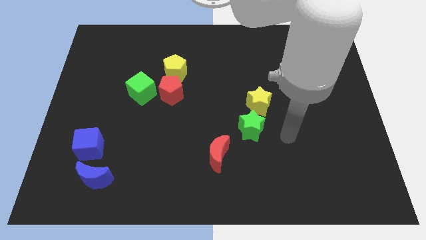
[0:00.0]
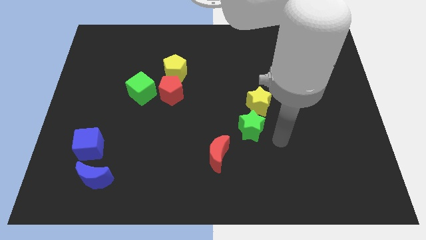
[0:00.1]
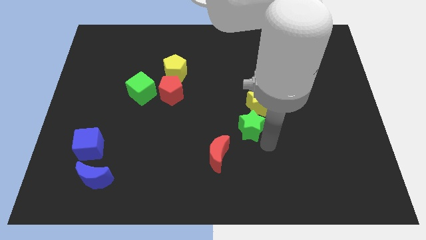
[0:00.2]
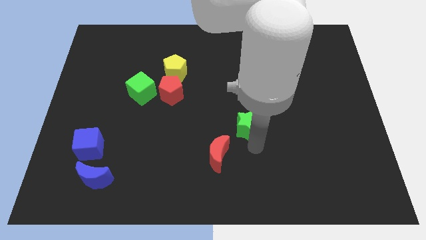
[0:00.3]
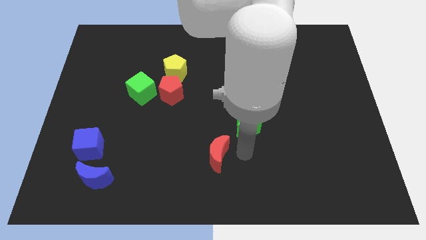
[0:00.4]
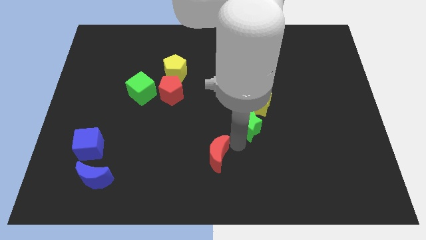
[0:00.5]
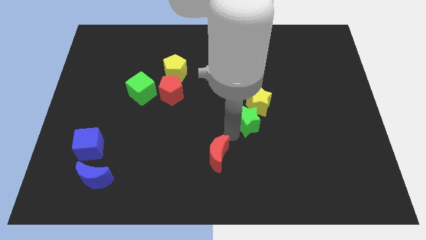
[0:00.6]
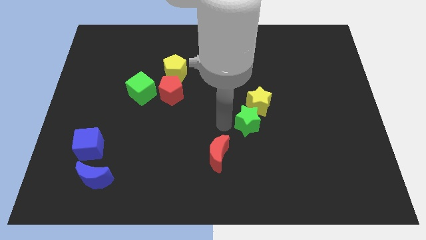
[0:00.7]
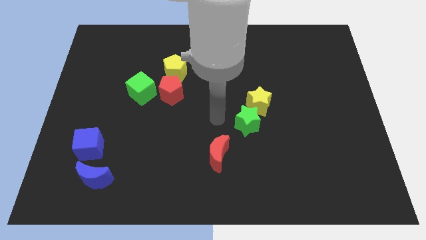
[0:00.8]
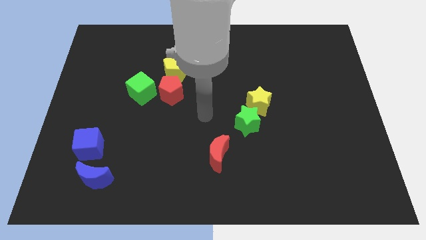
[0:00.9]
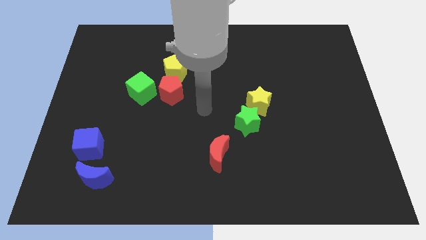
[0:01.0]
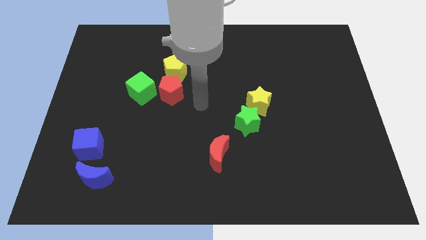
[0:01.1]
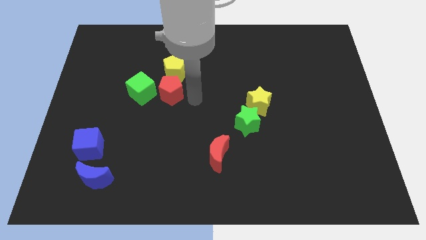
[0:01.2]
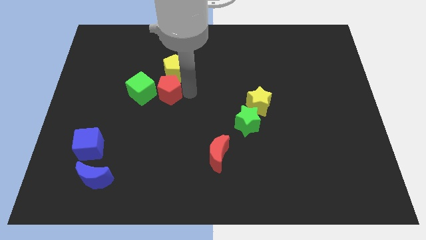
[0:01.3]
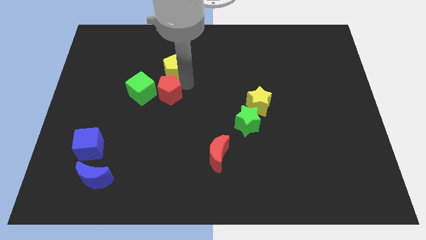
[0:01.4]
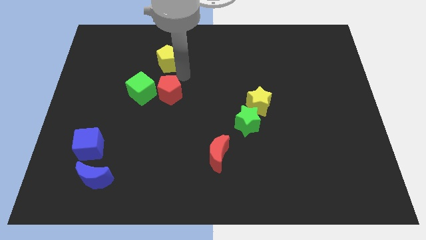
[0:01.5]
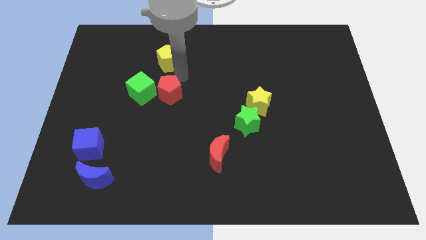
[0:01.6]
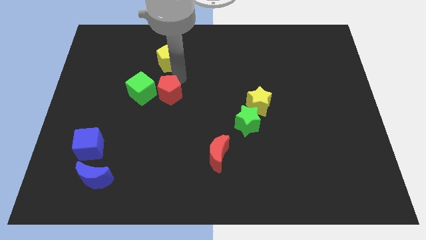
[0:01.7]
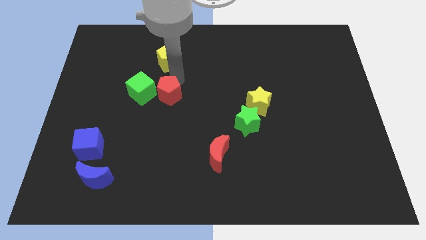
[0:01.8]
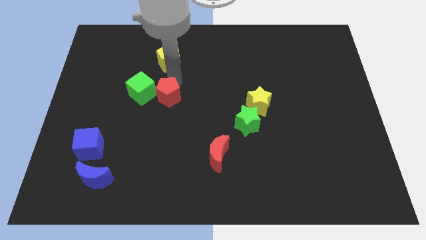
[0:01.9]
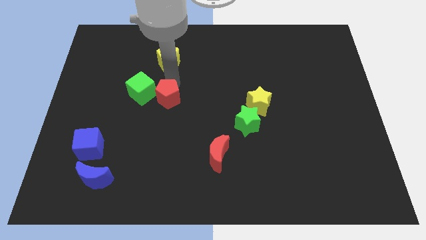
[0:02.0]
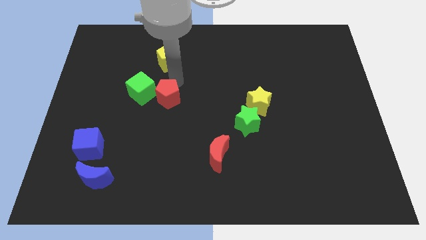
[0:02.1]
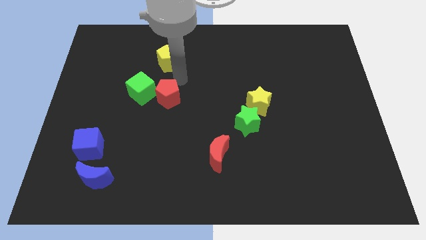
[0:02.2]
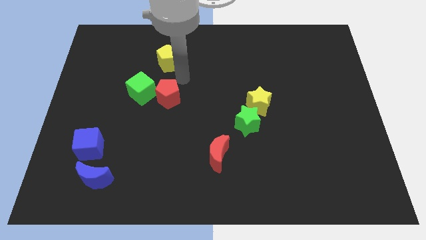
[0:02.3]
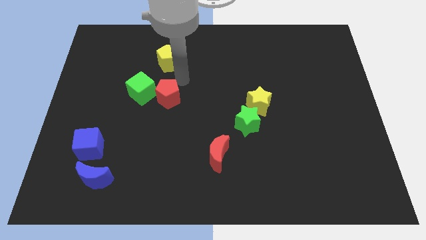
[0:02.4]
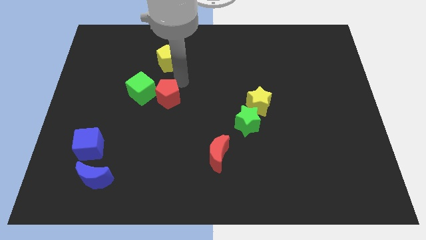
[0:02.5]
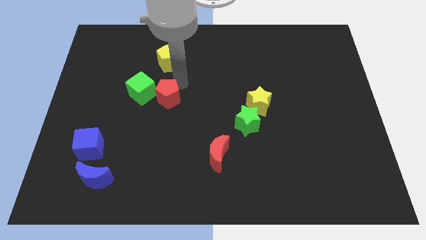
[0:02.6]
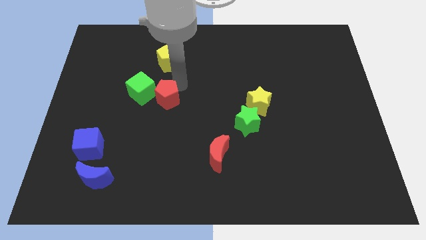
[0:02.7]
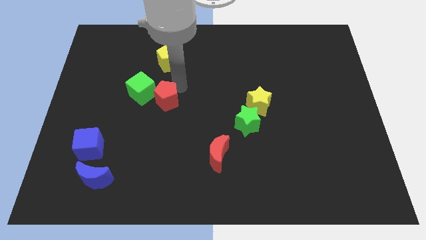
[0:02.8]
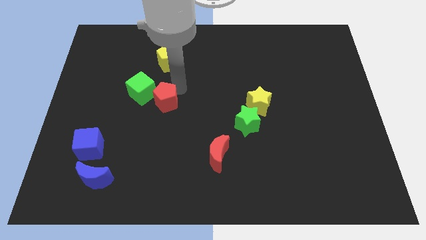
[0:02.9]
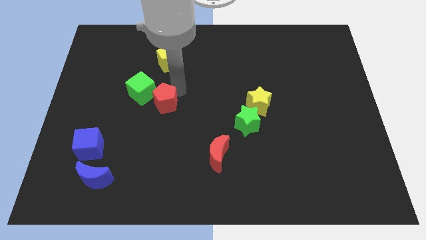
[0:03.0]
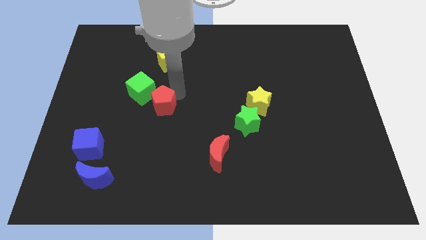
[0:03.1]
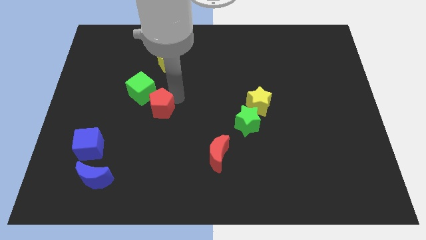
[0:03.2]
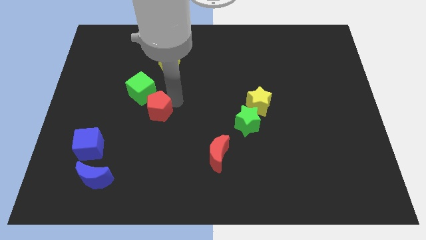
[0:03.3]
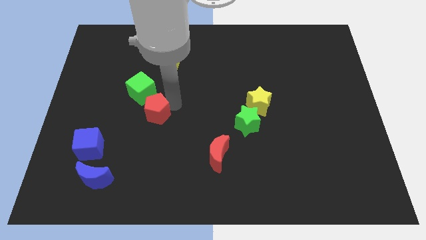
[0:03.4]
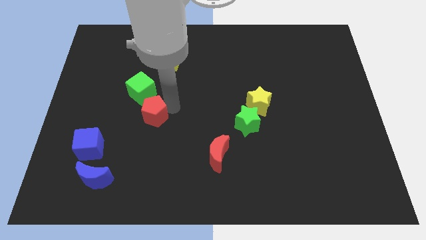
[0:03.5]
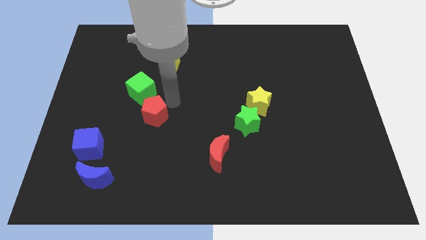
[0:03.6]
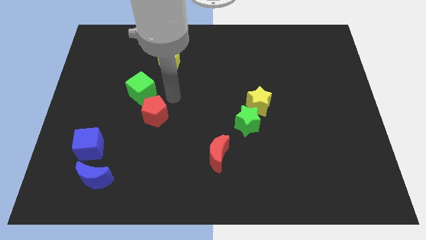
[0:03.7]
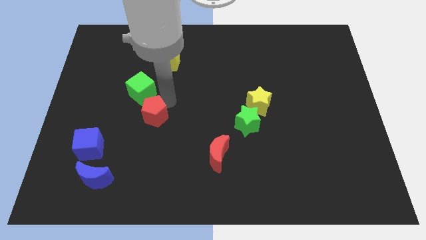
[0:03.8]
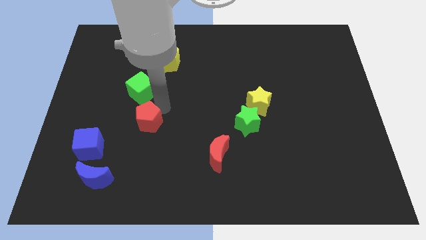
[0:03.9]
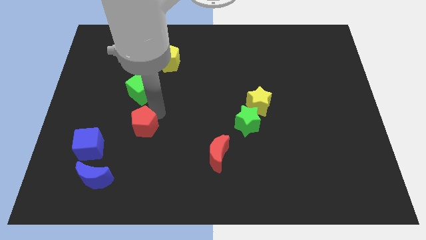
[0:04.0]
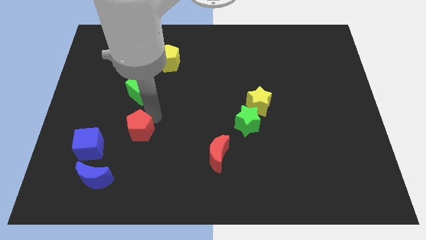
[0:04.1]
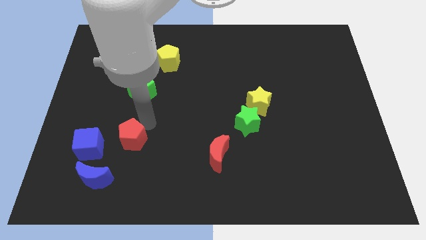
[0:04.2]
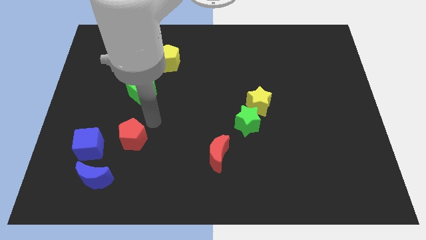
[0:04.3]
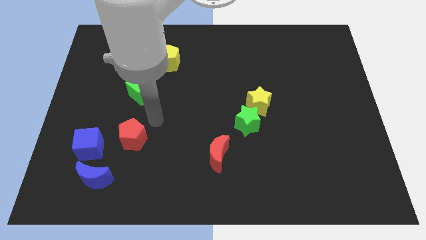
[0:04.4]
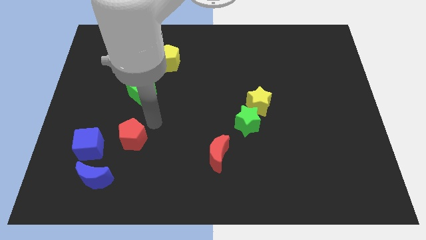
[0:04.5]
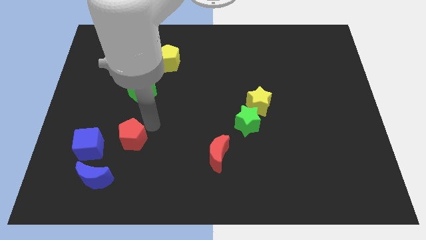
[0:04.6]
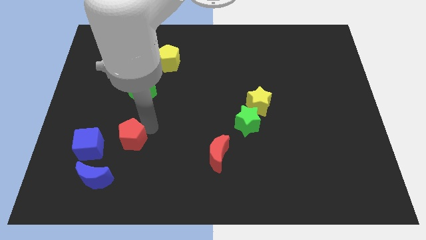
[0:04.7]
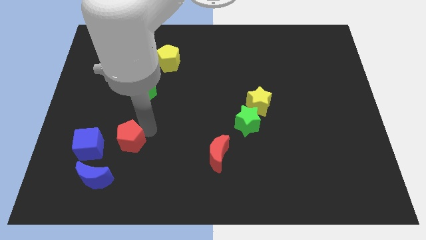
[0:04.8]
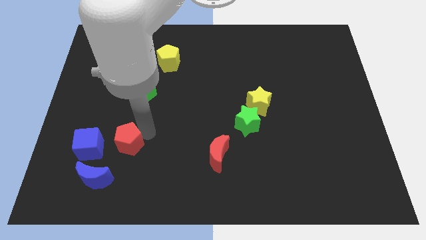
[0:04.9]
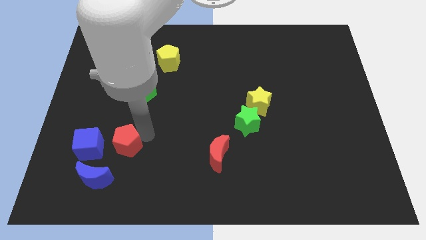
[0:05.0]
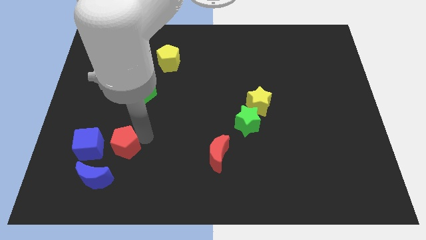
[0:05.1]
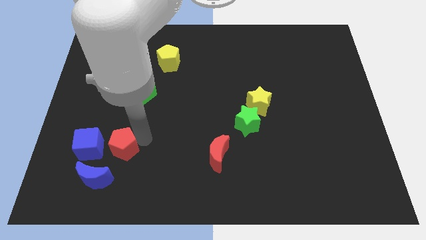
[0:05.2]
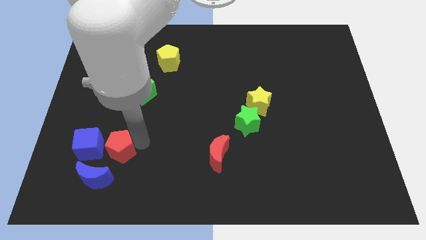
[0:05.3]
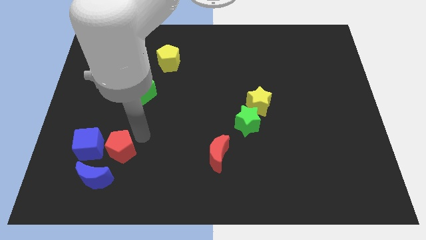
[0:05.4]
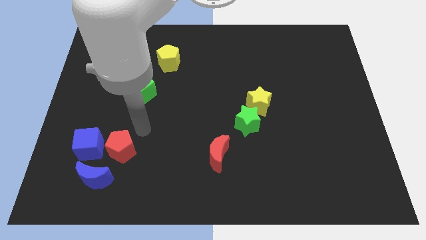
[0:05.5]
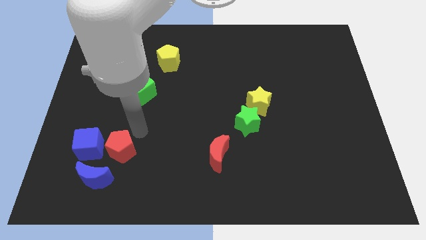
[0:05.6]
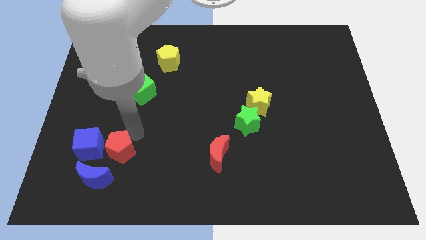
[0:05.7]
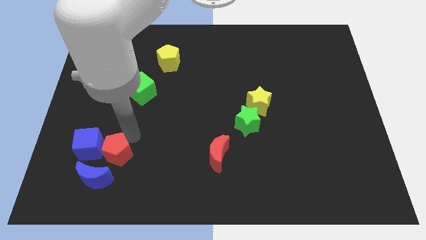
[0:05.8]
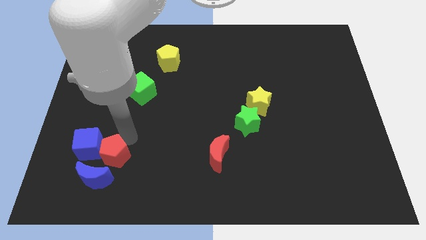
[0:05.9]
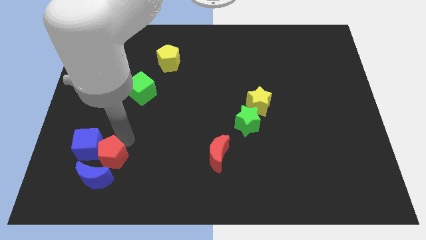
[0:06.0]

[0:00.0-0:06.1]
slide the red pentagon close to the blue moon
